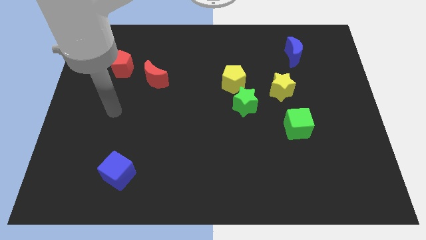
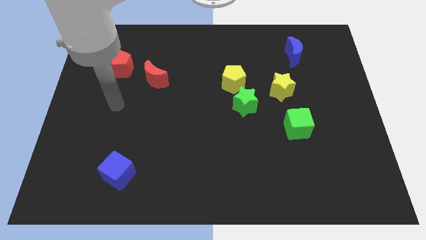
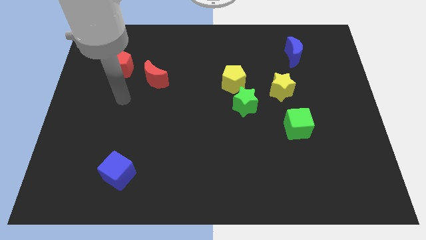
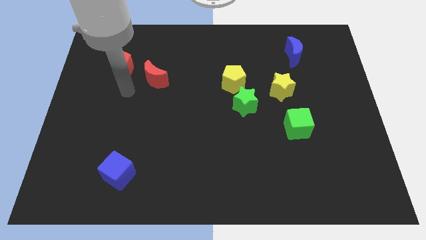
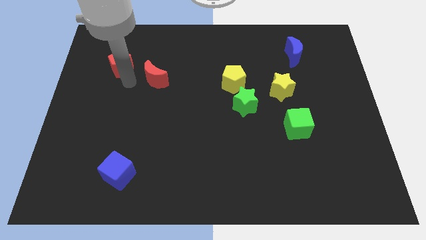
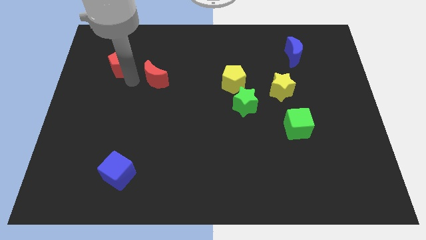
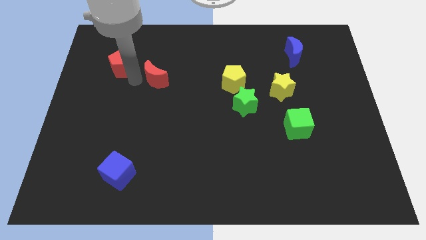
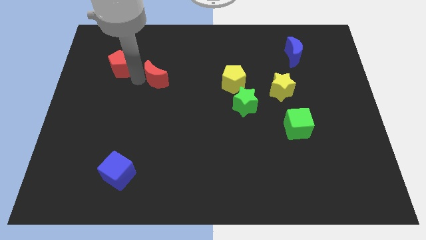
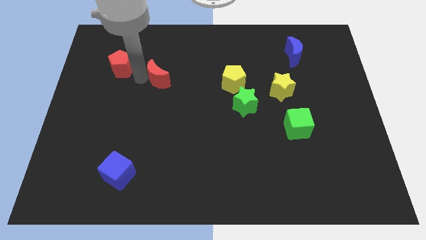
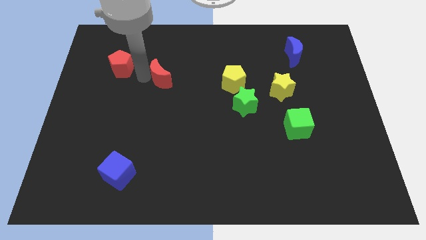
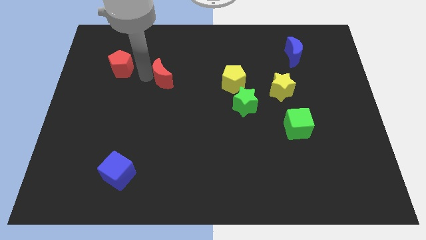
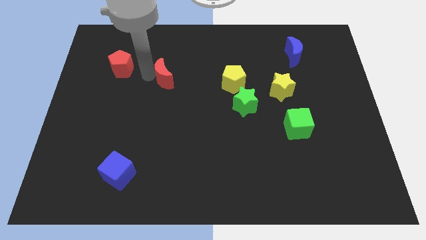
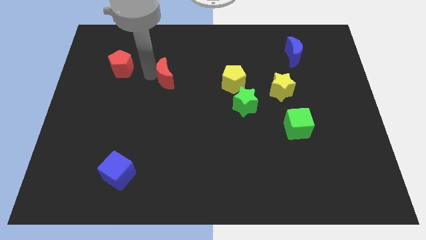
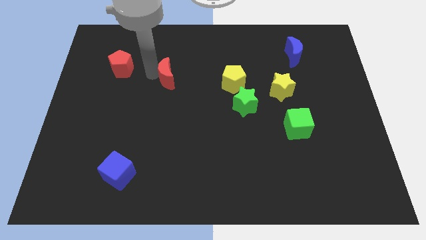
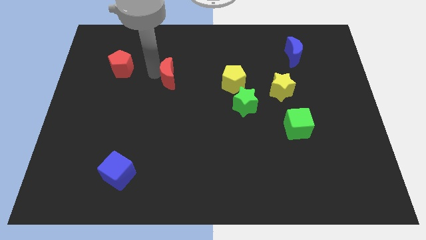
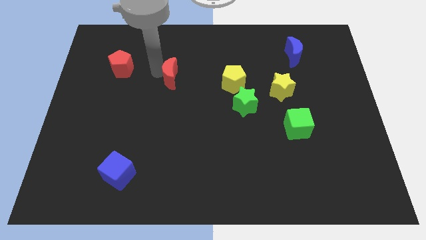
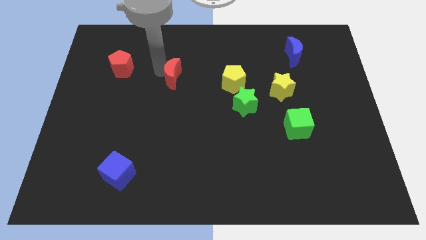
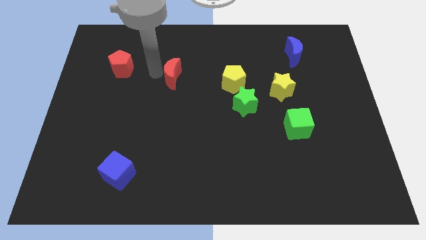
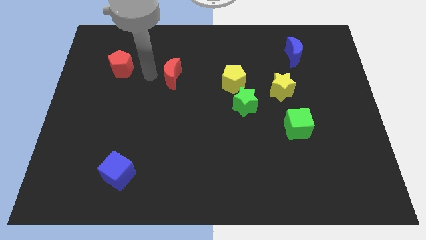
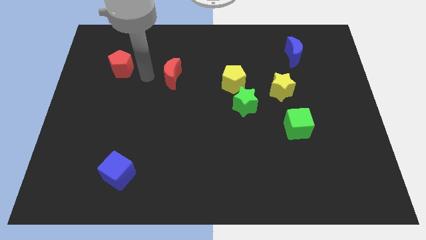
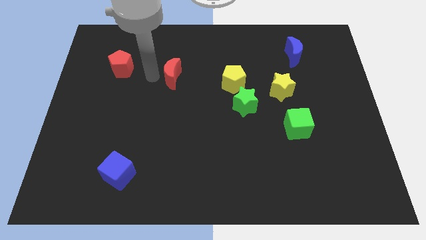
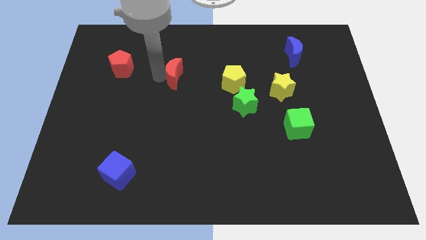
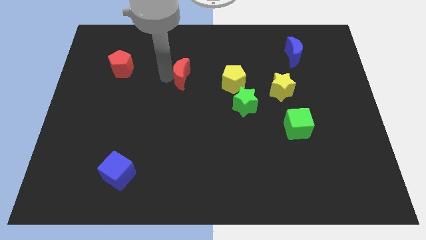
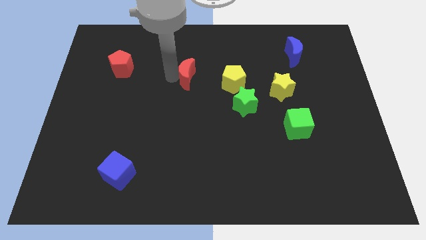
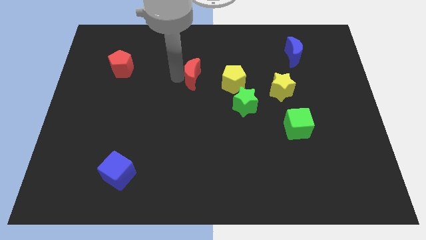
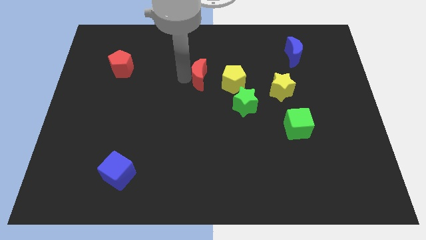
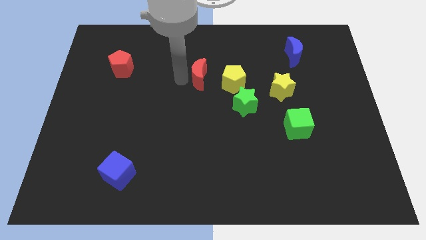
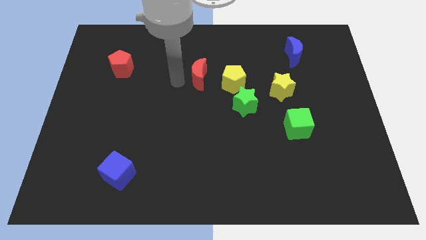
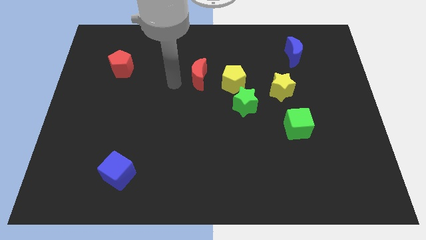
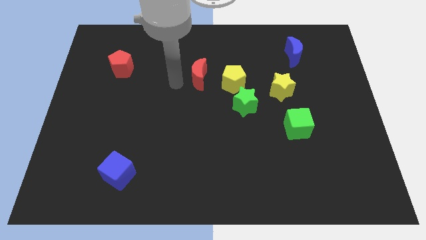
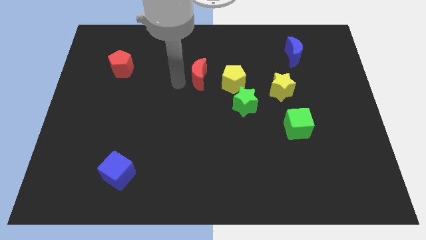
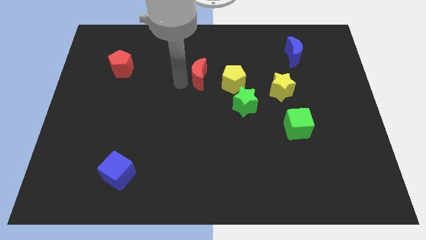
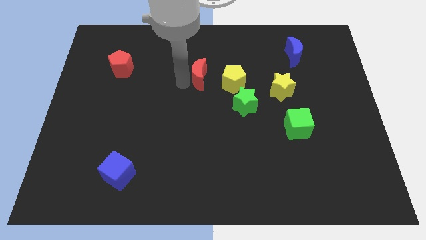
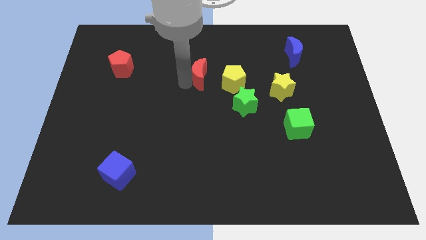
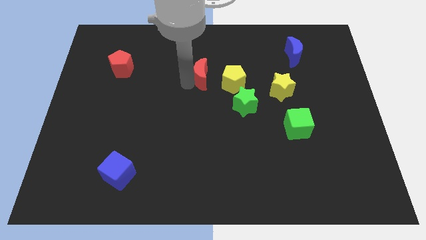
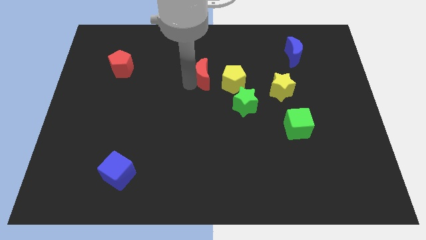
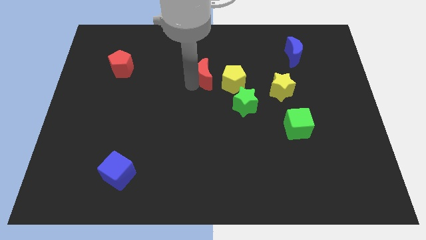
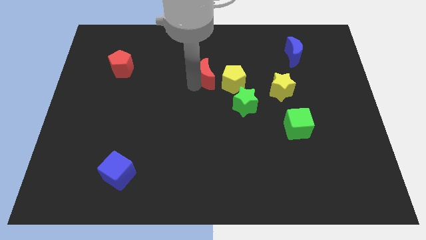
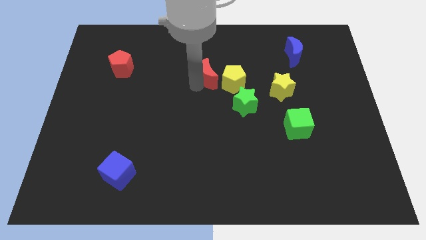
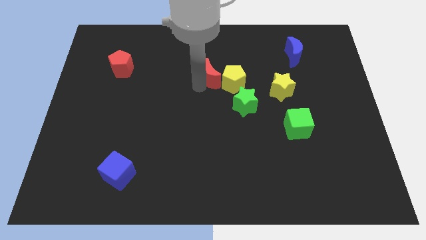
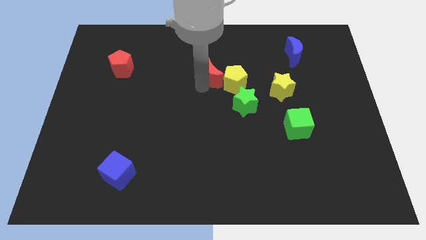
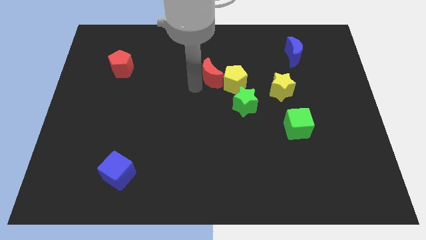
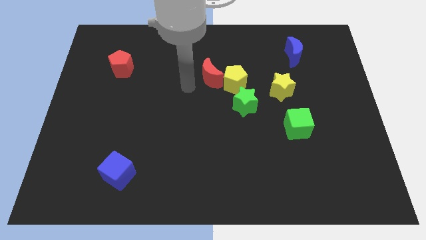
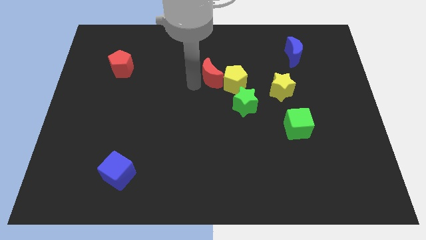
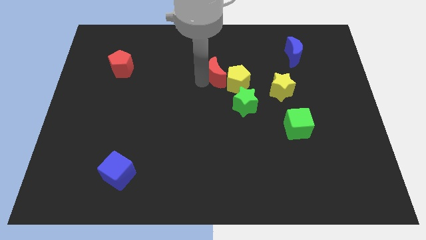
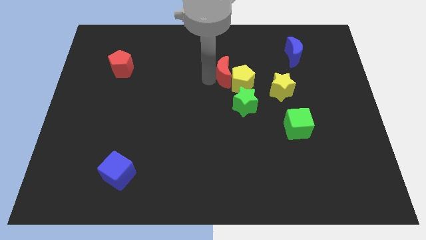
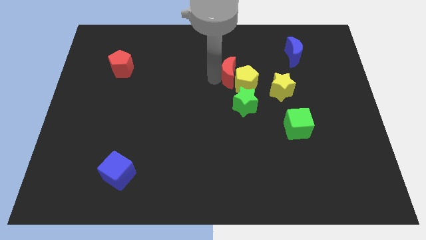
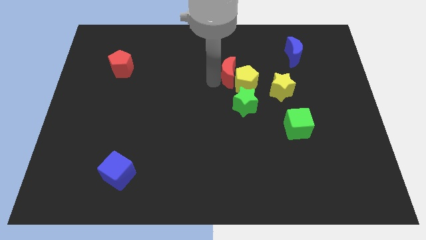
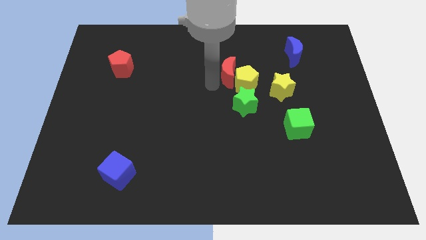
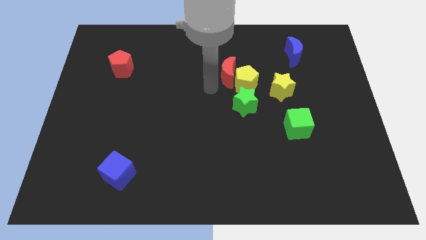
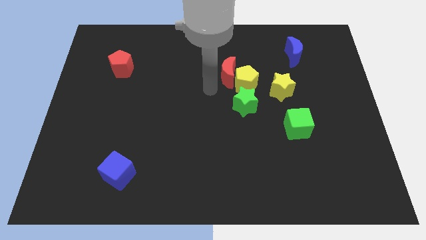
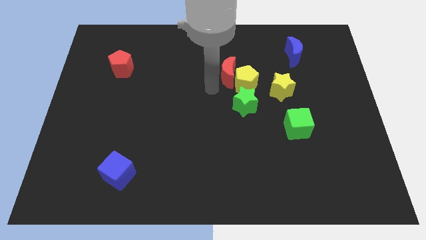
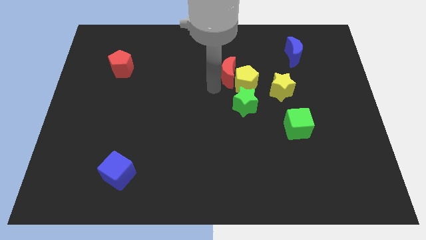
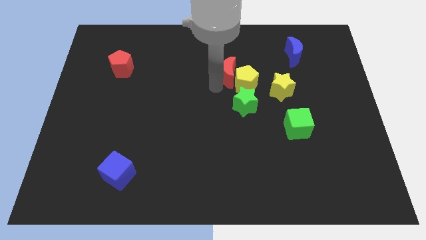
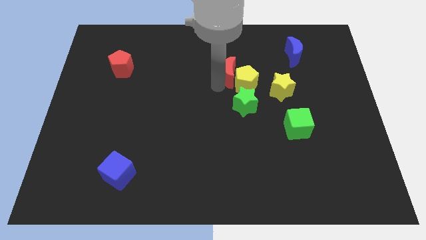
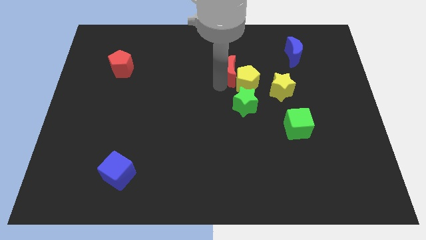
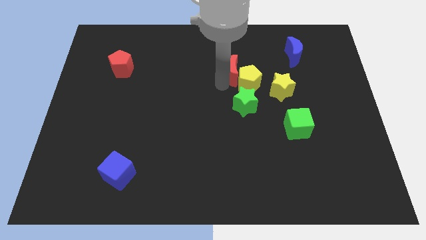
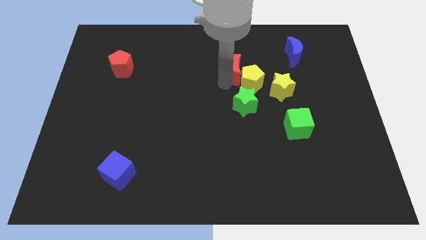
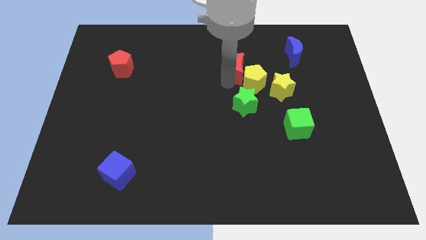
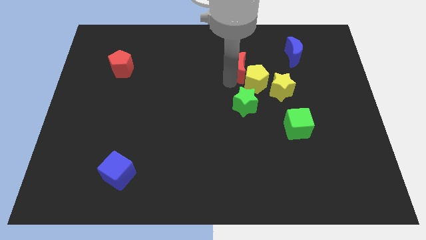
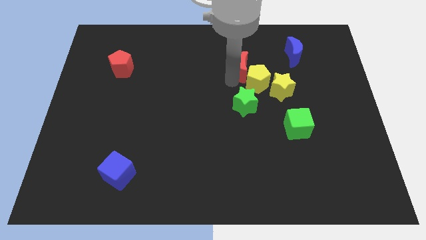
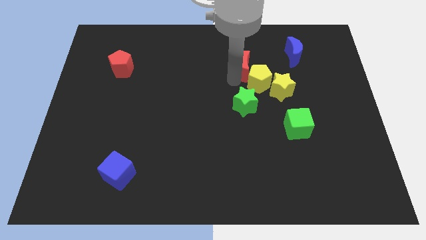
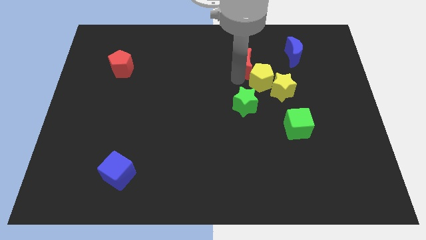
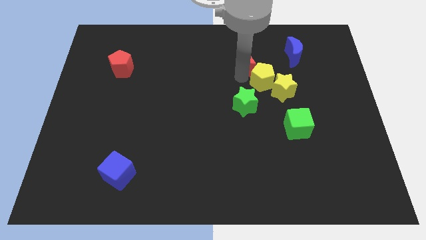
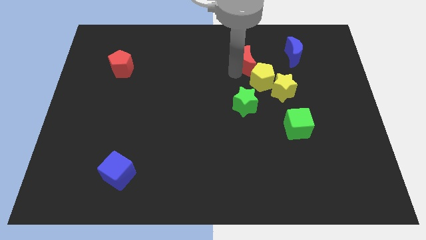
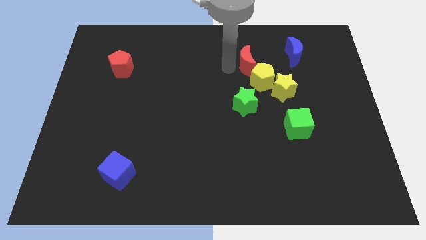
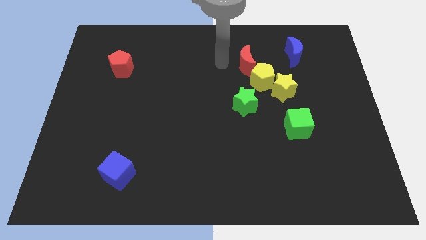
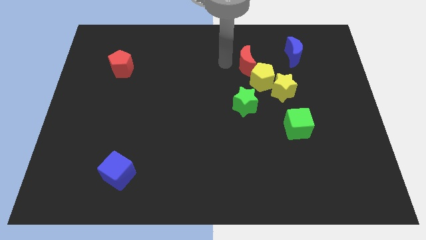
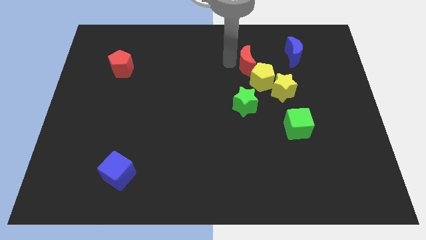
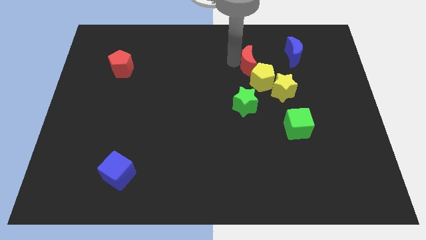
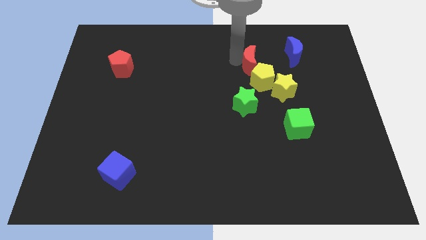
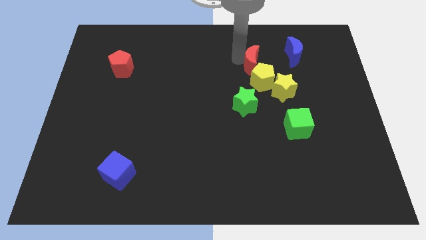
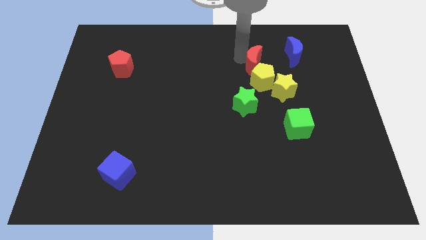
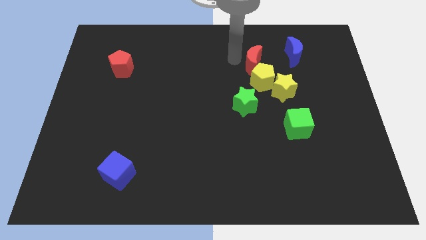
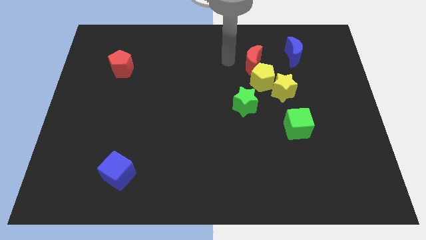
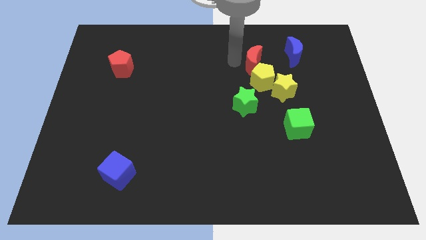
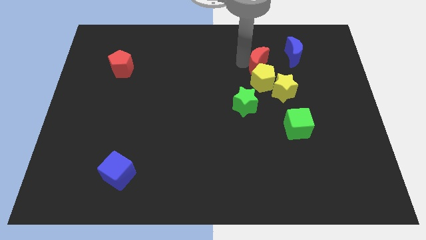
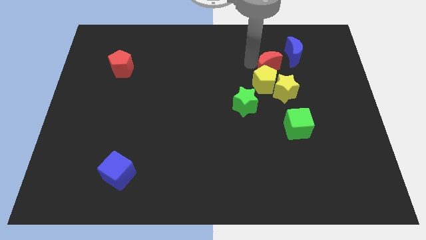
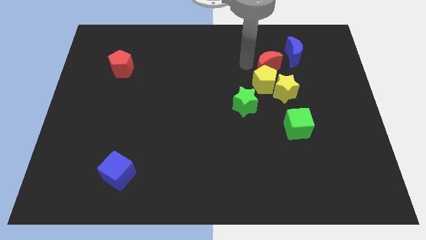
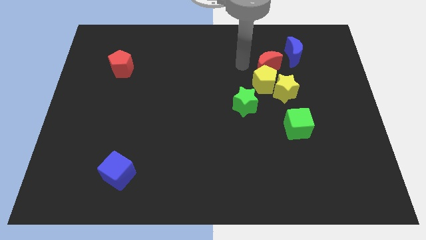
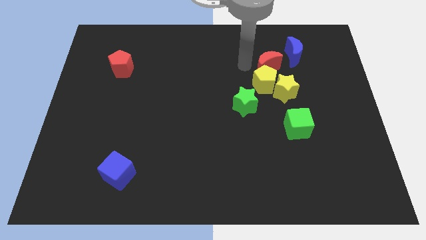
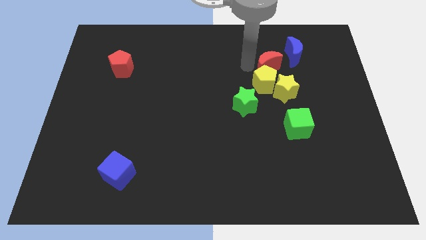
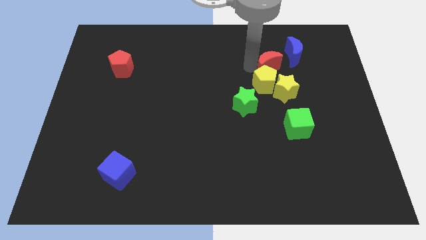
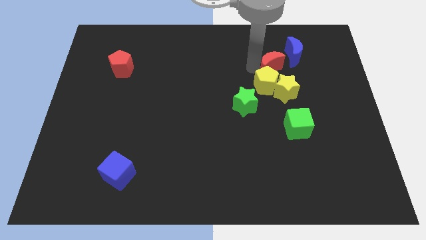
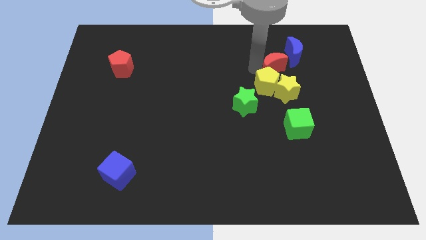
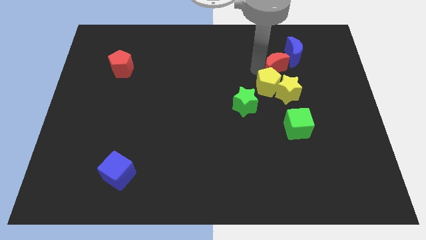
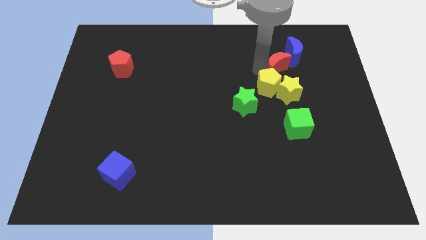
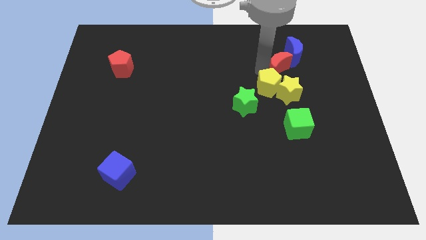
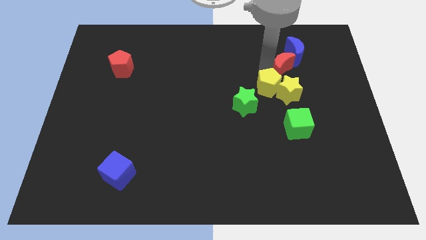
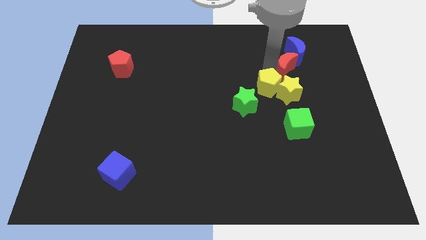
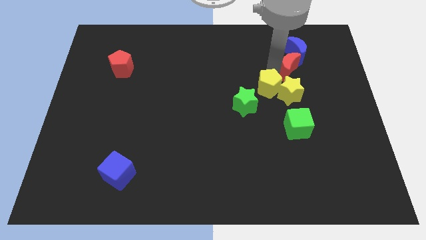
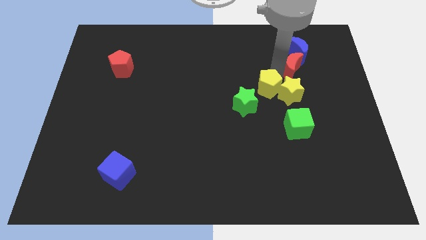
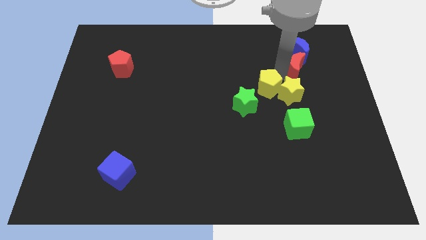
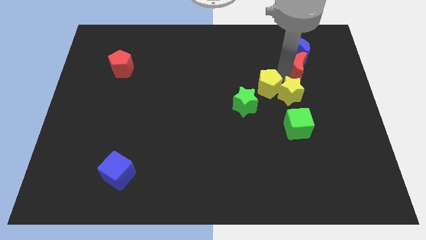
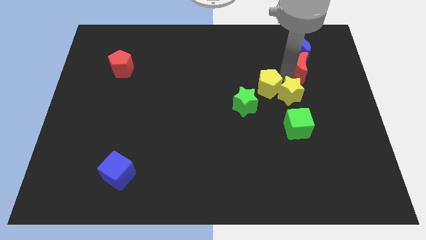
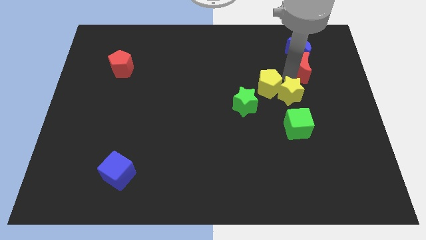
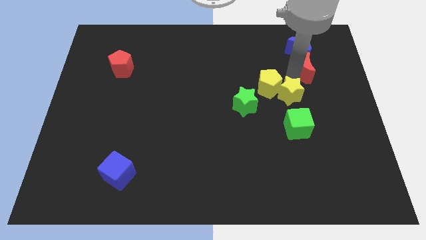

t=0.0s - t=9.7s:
put the red moon to the bottom right side of the blue moon
